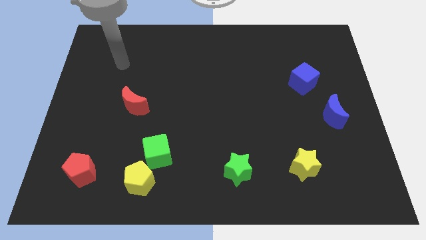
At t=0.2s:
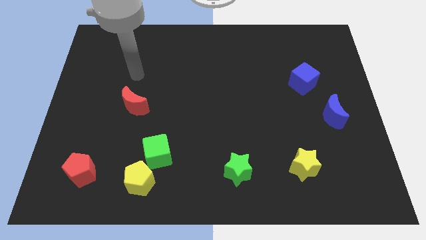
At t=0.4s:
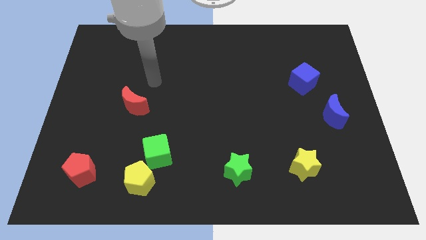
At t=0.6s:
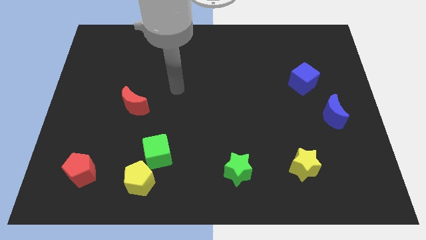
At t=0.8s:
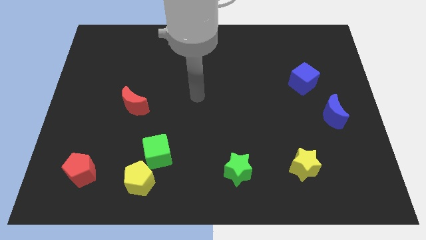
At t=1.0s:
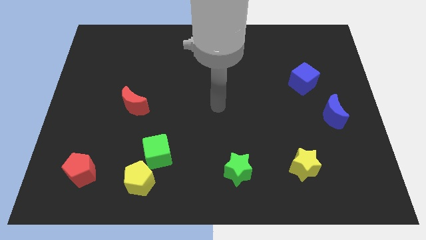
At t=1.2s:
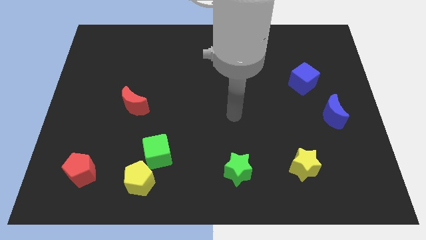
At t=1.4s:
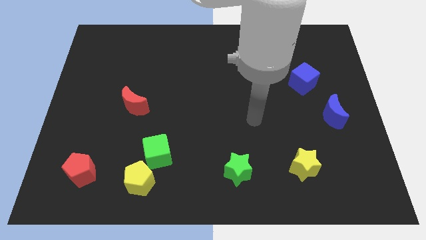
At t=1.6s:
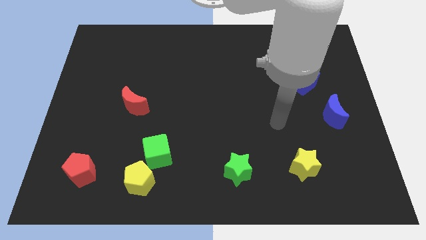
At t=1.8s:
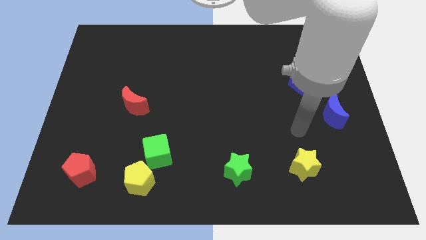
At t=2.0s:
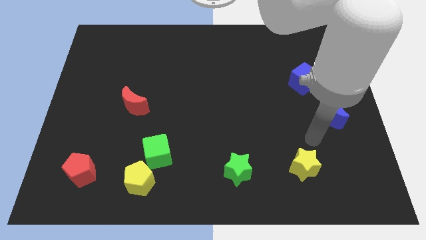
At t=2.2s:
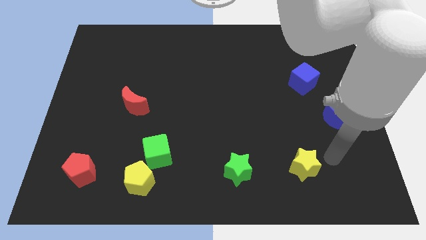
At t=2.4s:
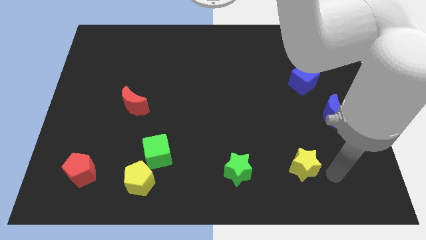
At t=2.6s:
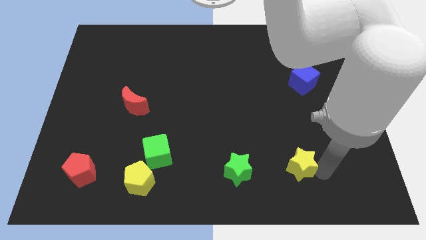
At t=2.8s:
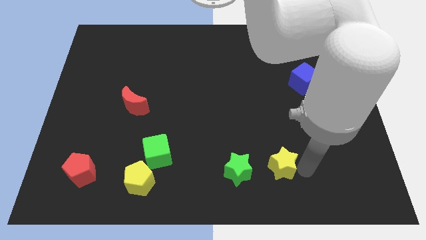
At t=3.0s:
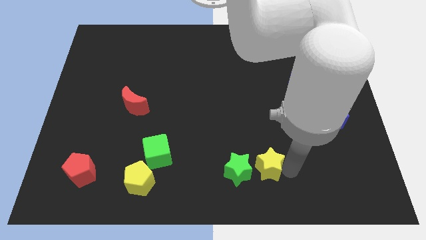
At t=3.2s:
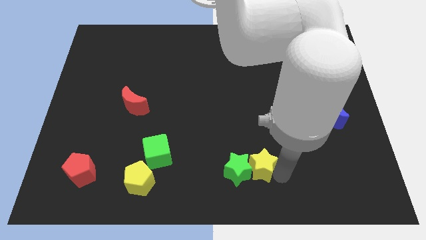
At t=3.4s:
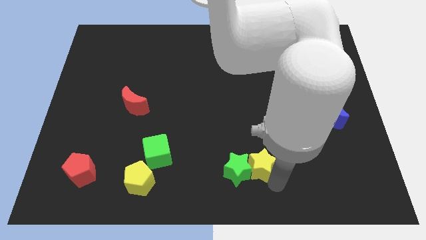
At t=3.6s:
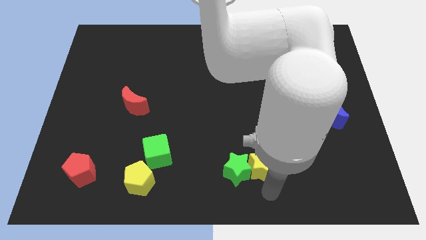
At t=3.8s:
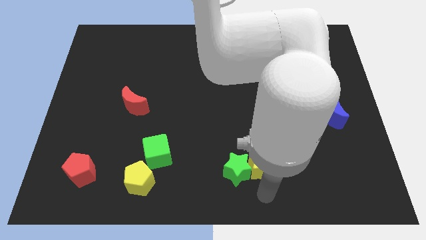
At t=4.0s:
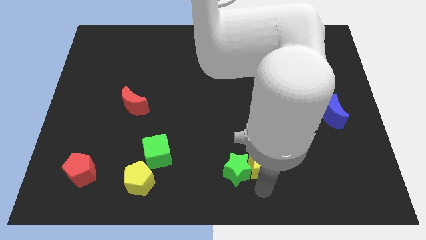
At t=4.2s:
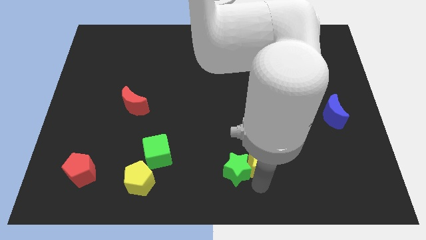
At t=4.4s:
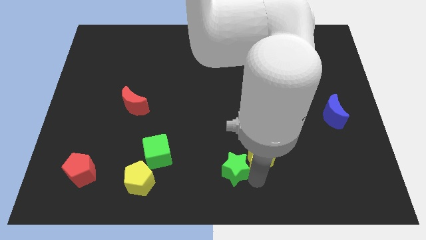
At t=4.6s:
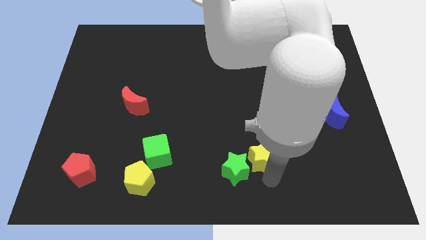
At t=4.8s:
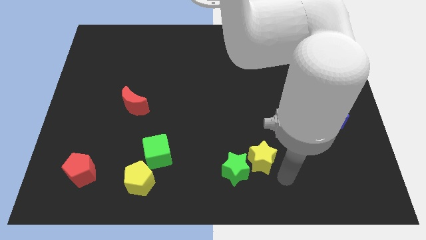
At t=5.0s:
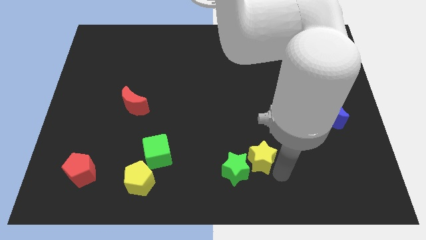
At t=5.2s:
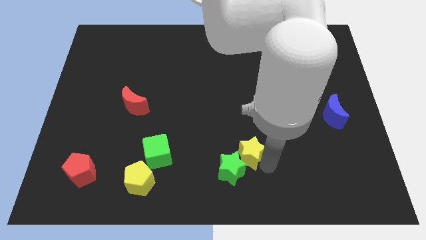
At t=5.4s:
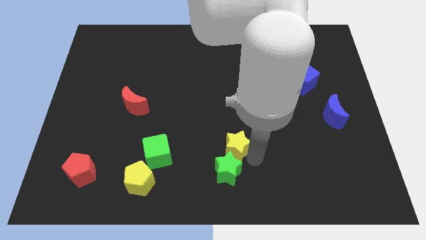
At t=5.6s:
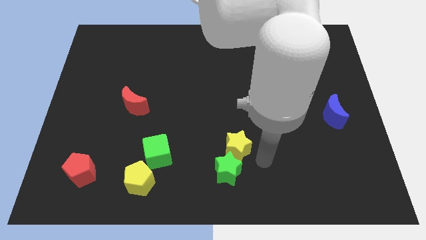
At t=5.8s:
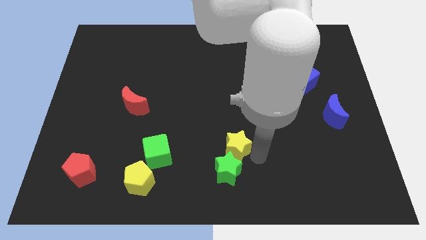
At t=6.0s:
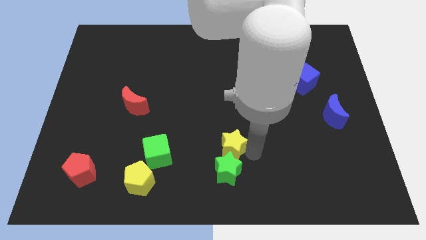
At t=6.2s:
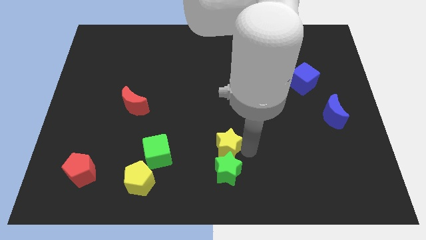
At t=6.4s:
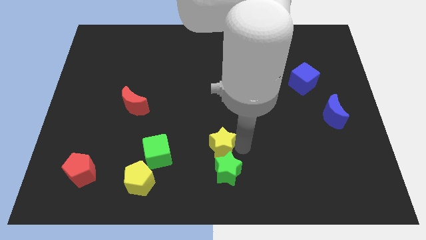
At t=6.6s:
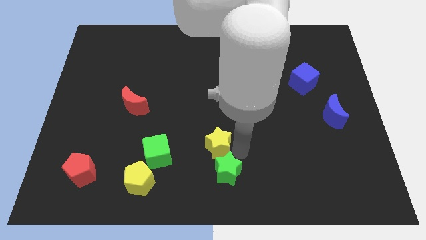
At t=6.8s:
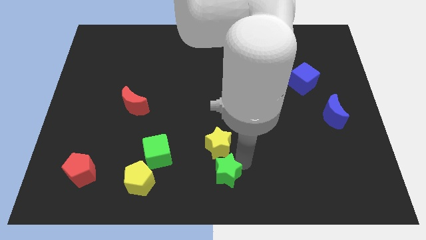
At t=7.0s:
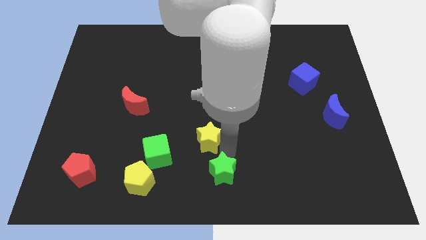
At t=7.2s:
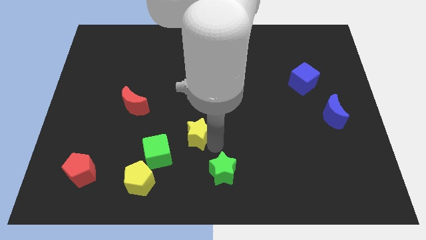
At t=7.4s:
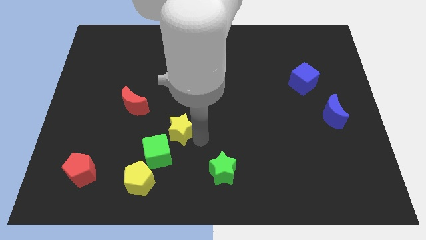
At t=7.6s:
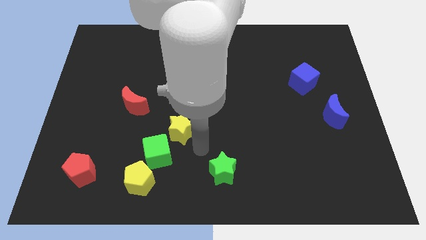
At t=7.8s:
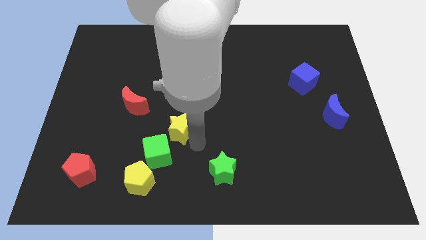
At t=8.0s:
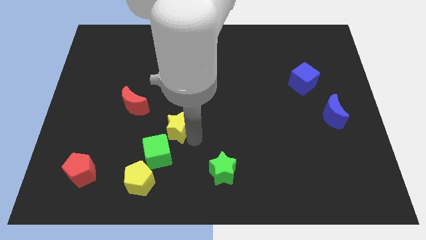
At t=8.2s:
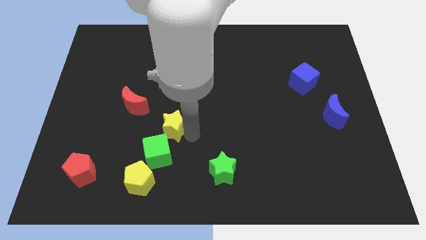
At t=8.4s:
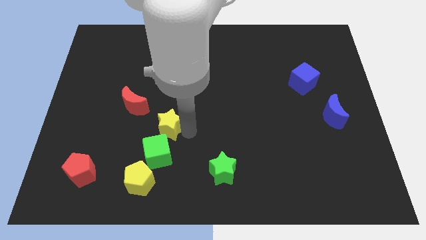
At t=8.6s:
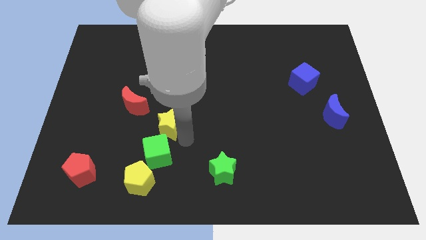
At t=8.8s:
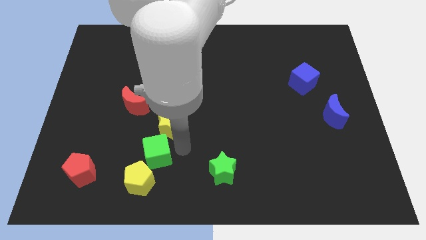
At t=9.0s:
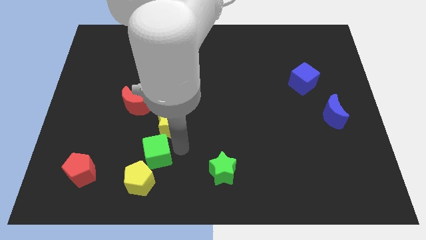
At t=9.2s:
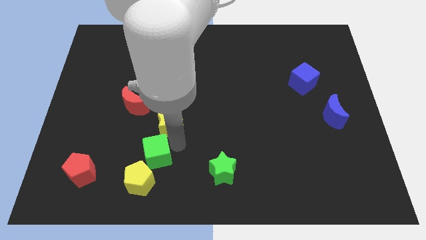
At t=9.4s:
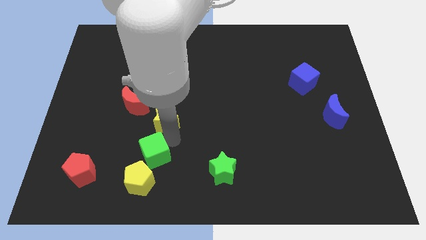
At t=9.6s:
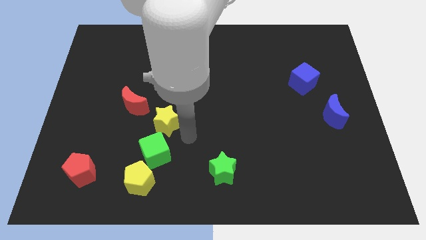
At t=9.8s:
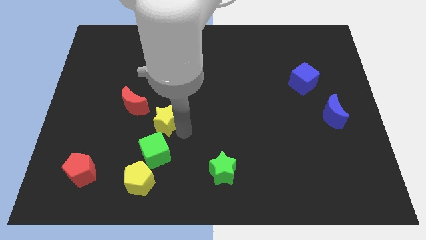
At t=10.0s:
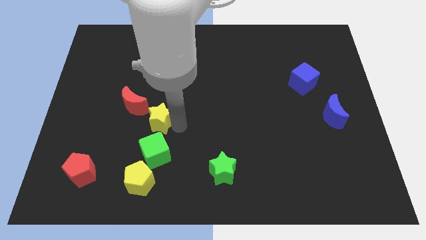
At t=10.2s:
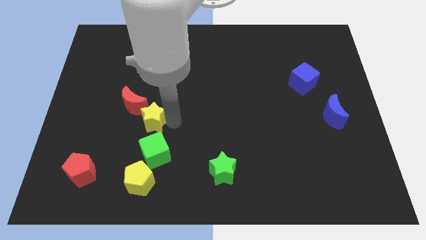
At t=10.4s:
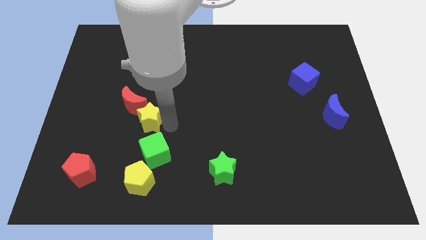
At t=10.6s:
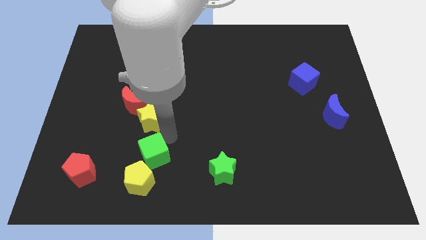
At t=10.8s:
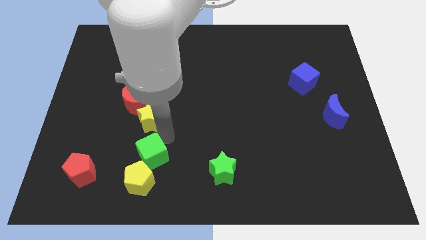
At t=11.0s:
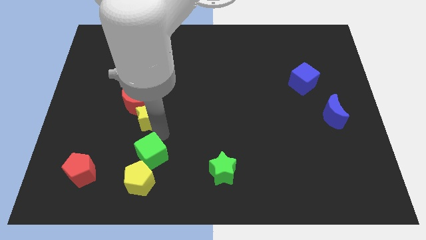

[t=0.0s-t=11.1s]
push the yellow star to the red moon

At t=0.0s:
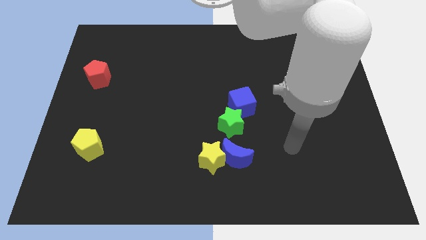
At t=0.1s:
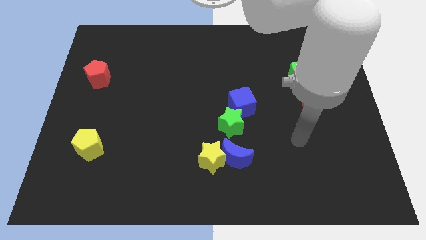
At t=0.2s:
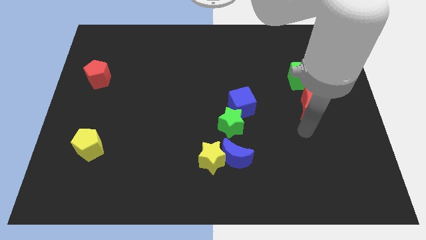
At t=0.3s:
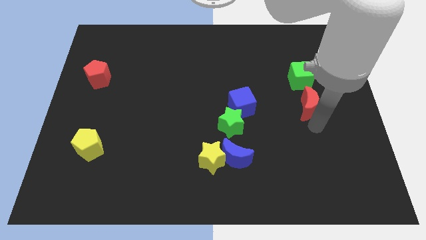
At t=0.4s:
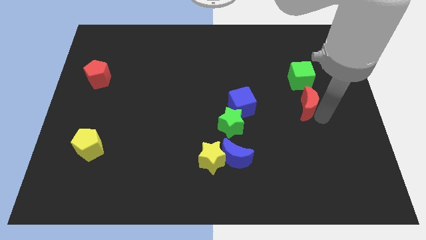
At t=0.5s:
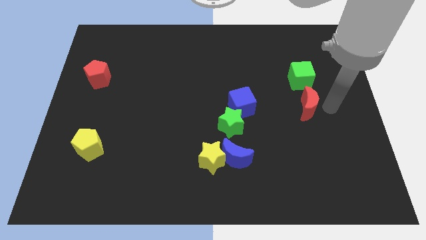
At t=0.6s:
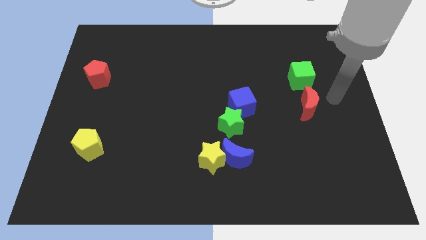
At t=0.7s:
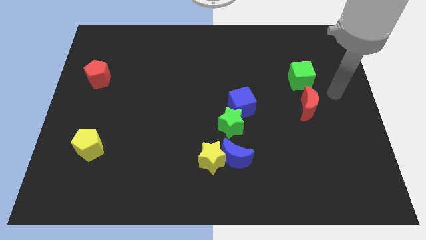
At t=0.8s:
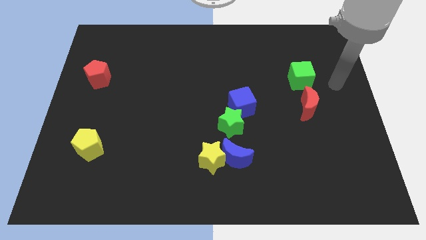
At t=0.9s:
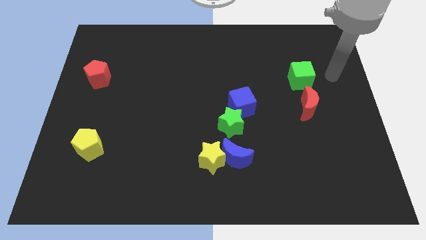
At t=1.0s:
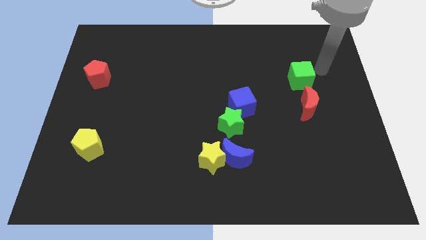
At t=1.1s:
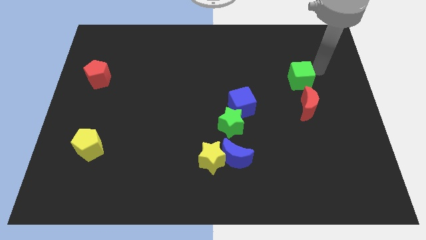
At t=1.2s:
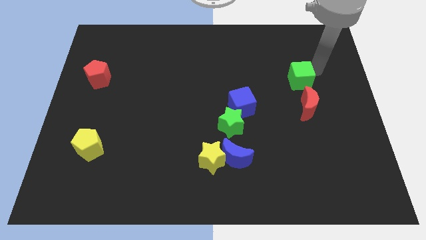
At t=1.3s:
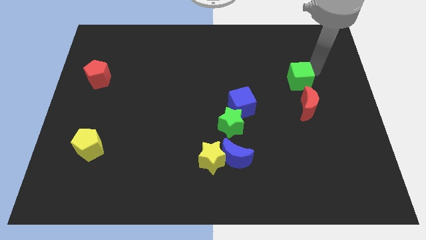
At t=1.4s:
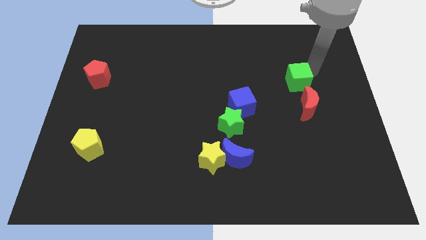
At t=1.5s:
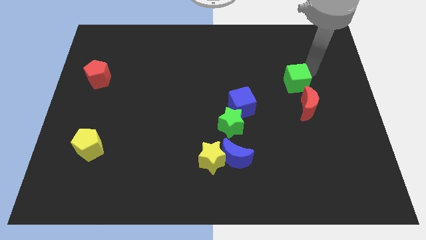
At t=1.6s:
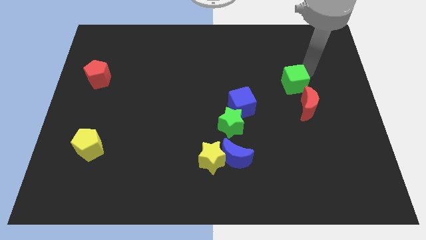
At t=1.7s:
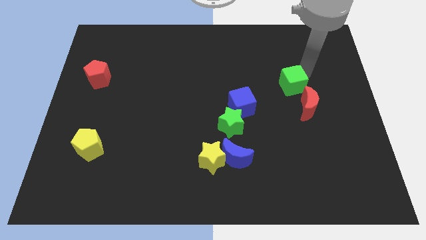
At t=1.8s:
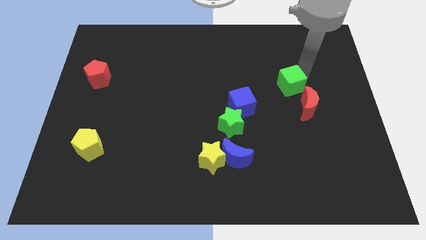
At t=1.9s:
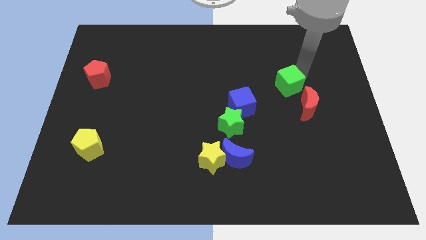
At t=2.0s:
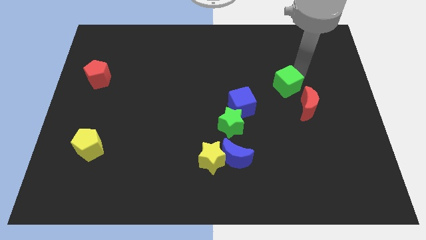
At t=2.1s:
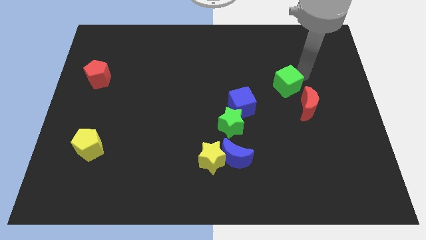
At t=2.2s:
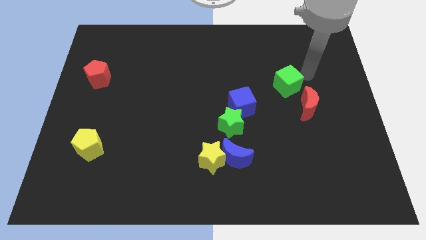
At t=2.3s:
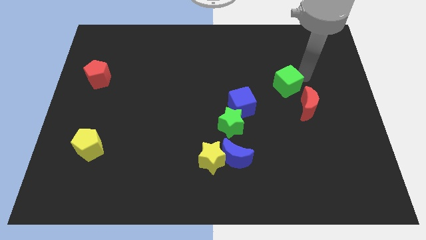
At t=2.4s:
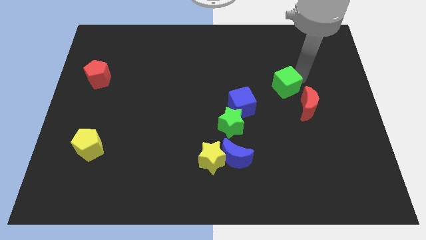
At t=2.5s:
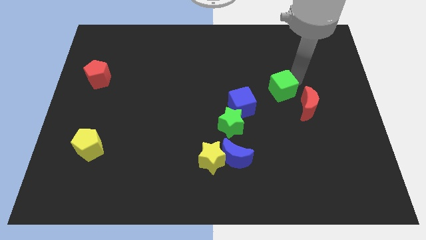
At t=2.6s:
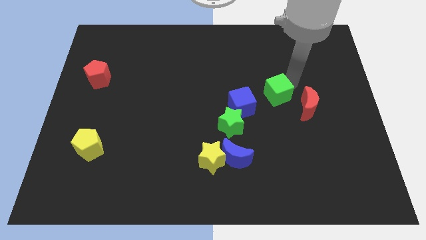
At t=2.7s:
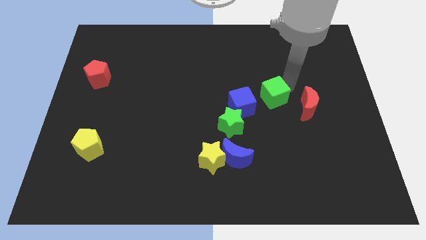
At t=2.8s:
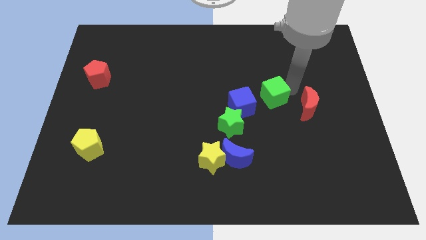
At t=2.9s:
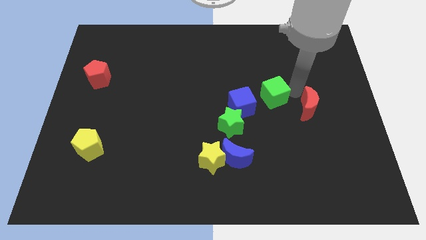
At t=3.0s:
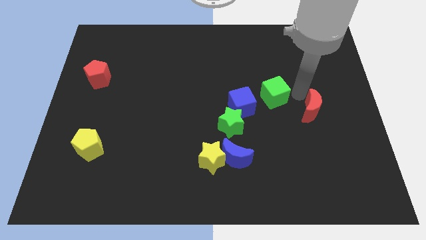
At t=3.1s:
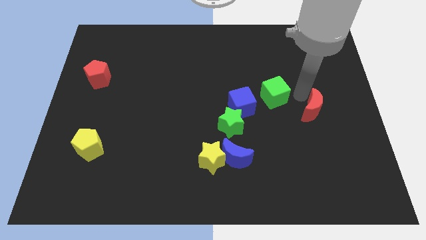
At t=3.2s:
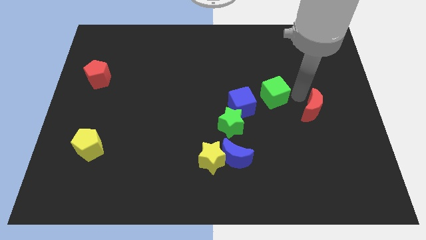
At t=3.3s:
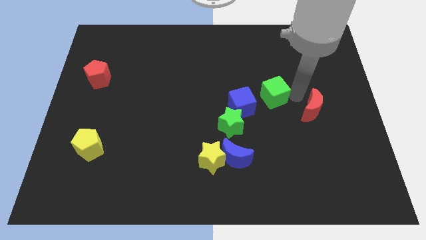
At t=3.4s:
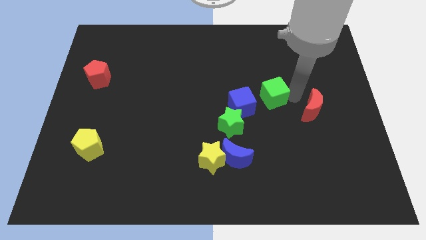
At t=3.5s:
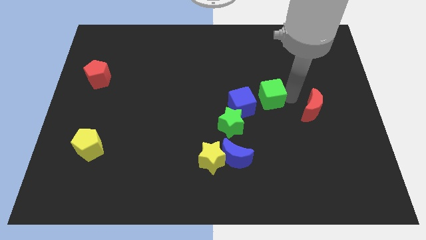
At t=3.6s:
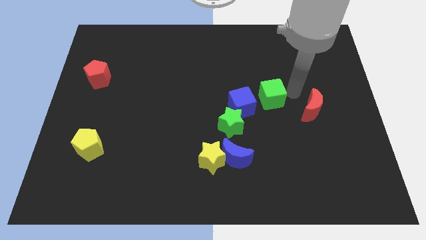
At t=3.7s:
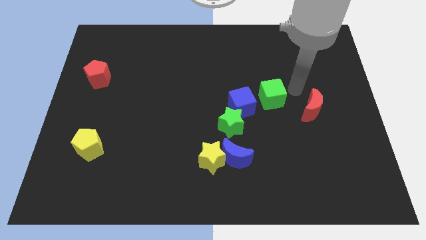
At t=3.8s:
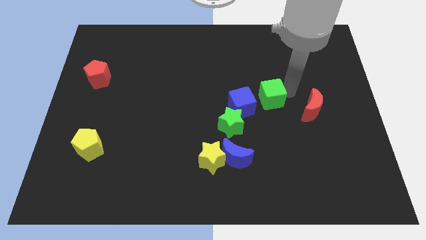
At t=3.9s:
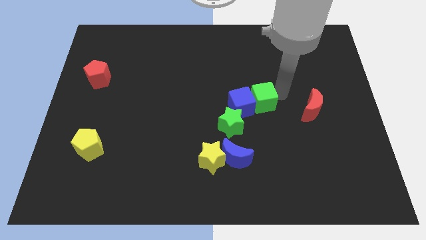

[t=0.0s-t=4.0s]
push the green cube towards the blue cube
